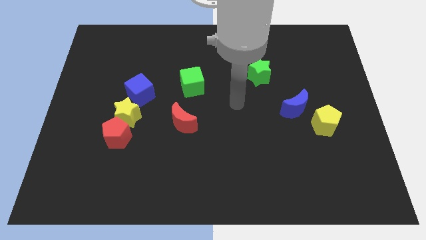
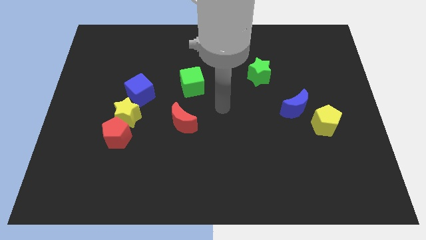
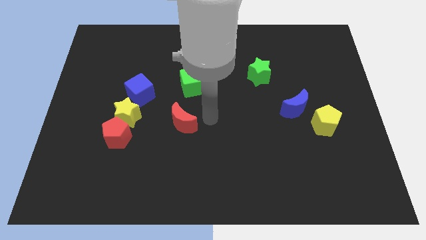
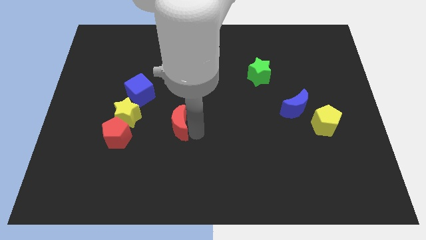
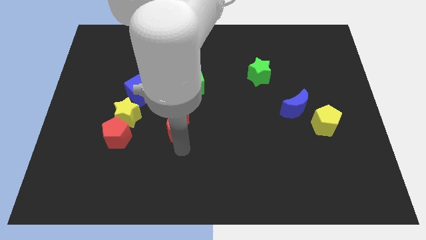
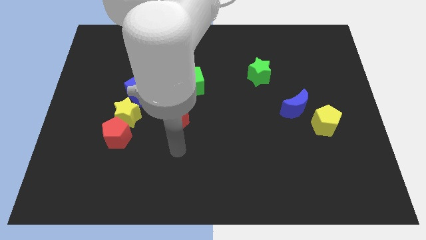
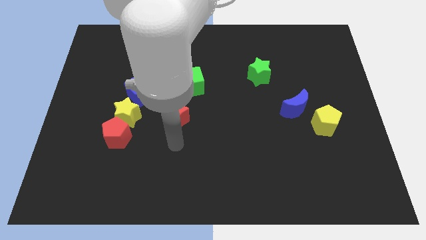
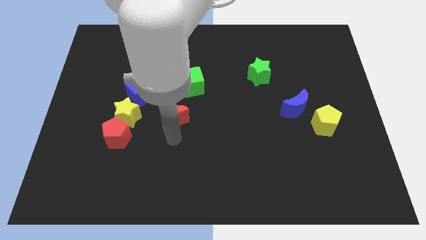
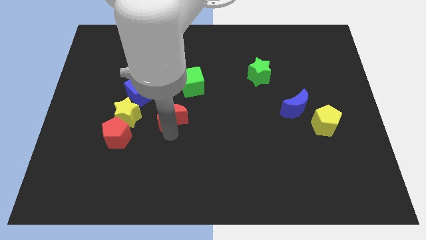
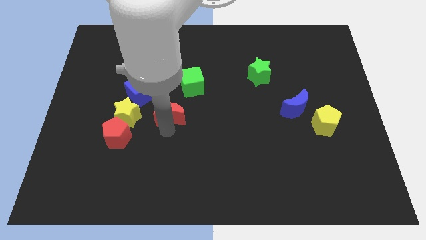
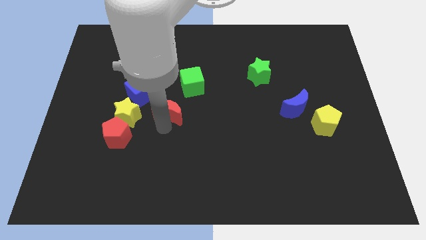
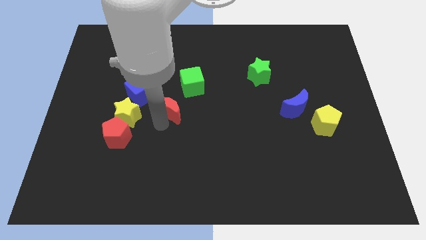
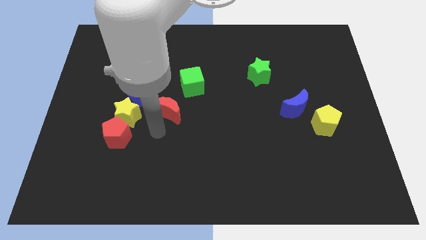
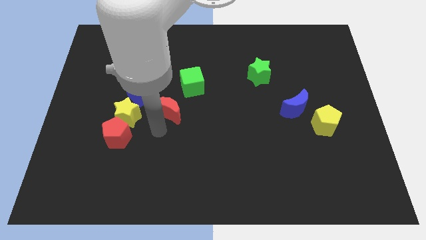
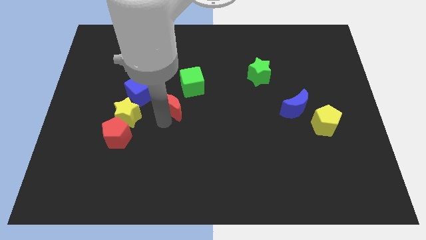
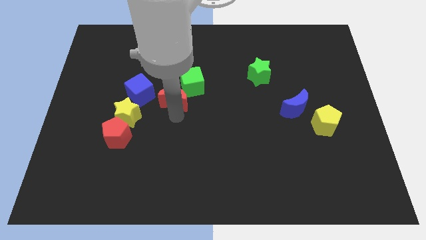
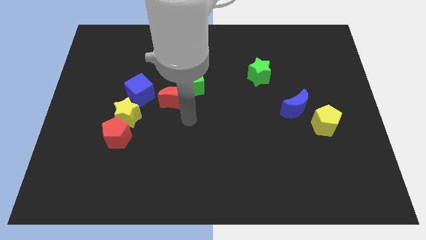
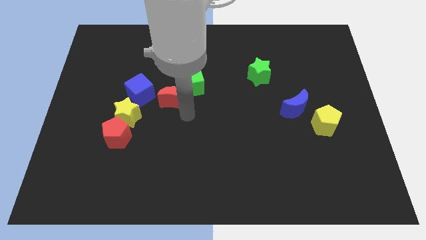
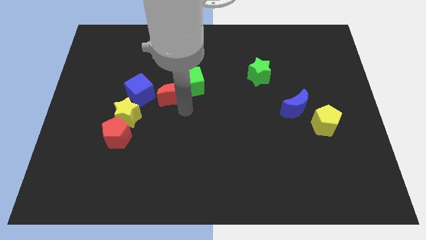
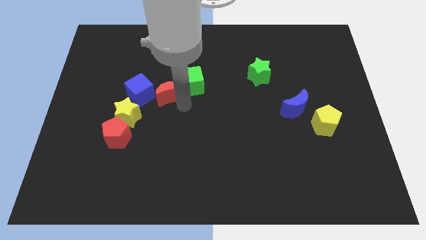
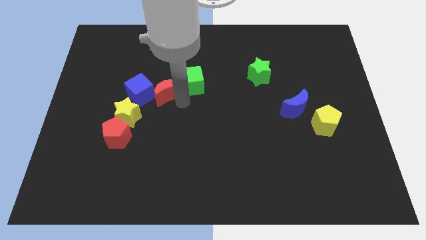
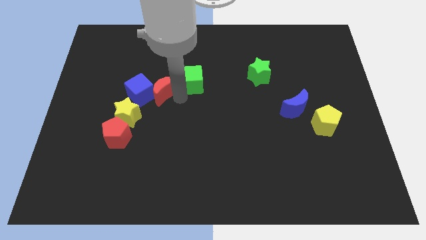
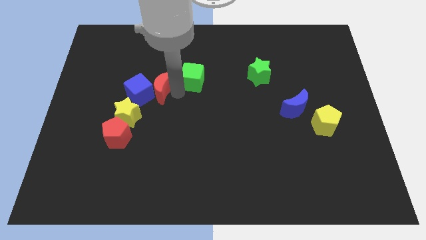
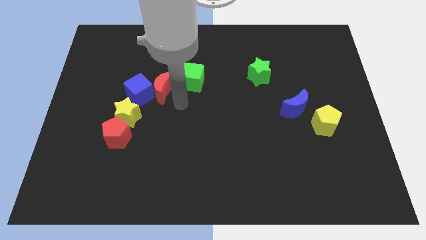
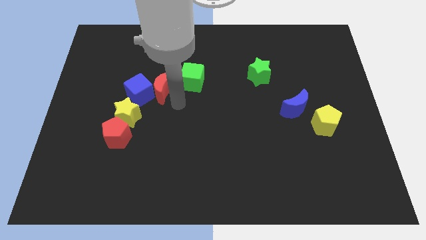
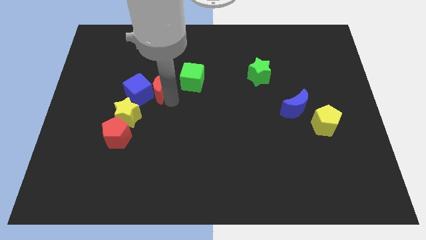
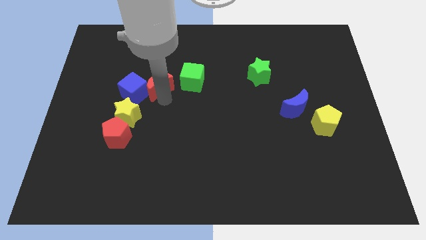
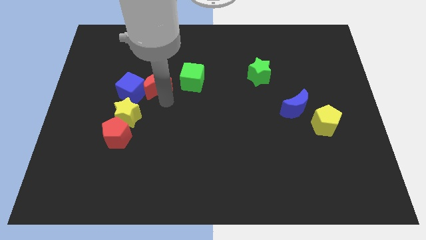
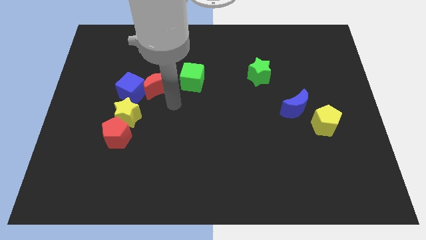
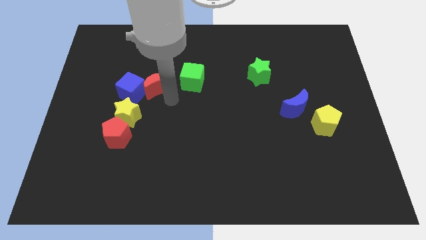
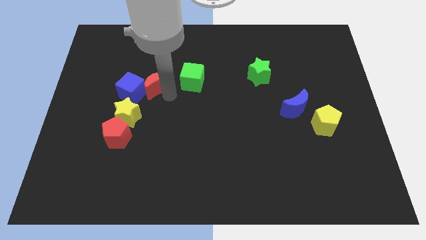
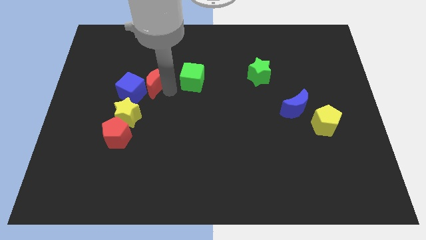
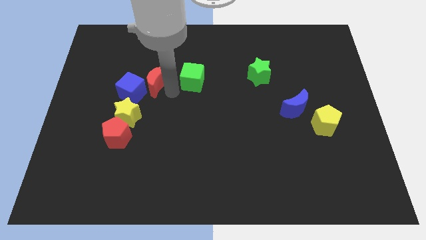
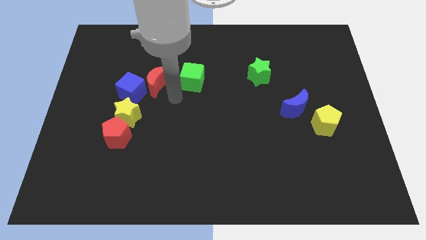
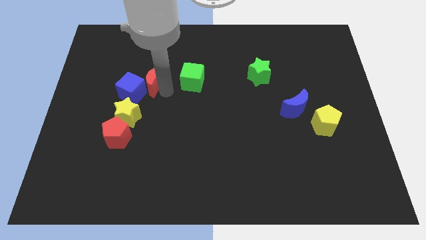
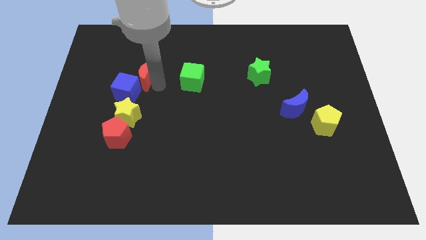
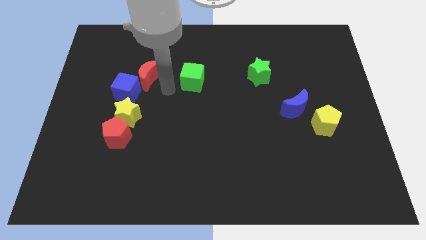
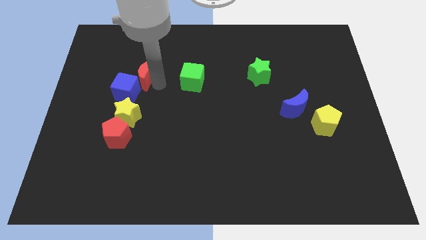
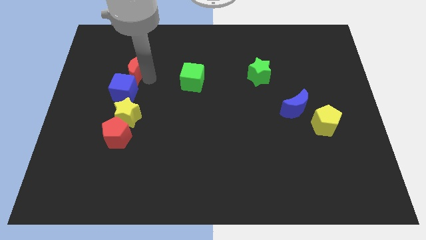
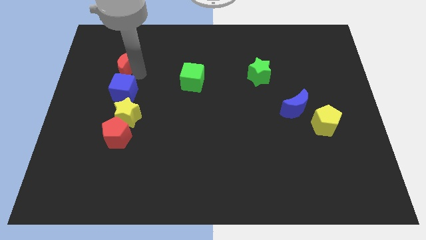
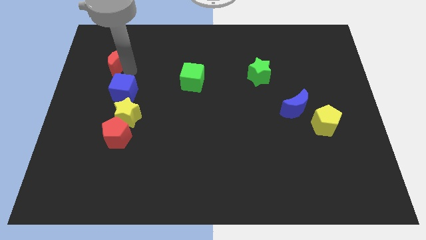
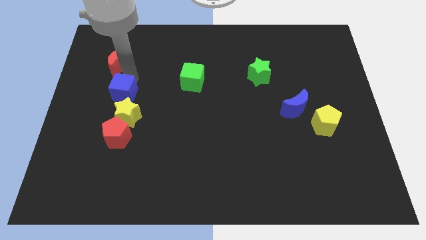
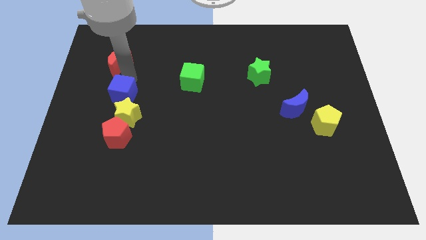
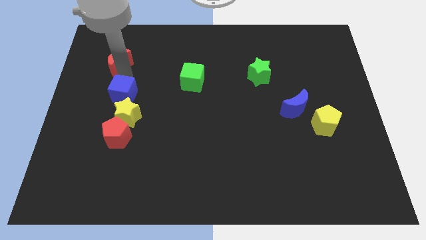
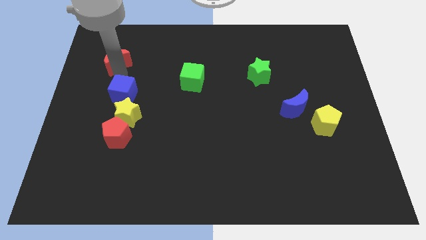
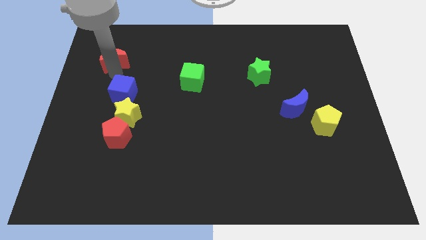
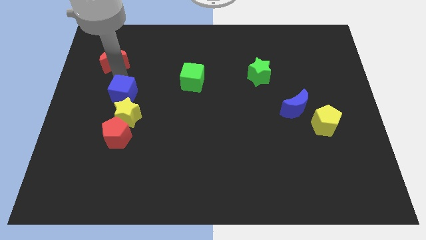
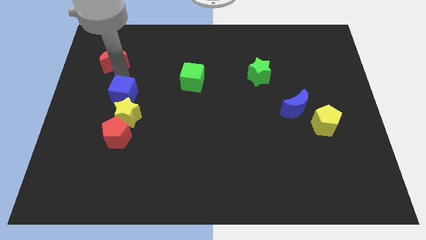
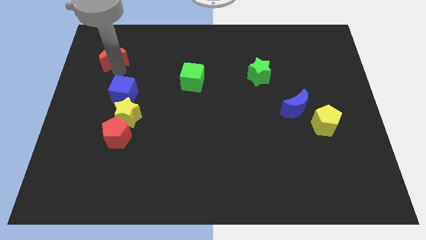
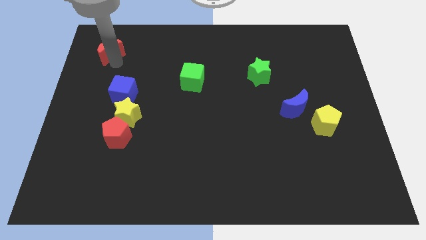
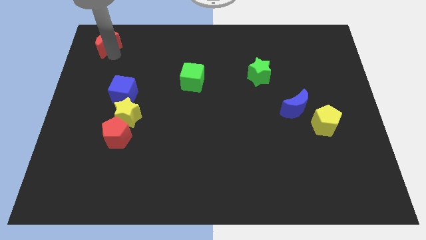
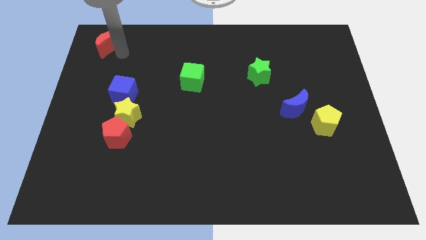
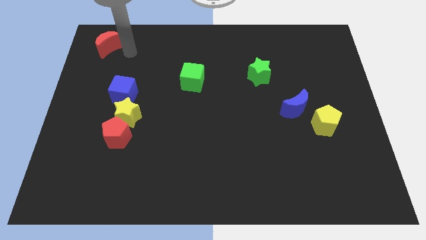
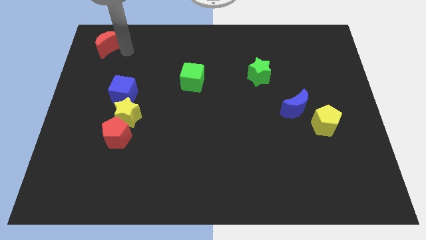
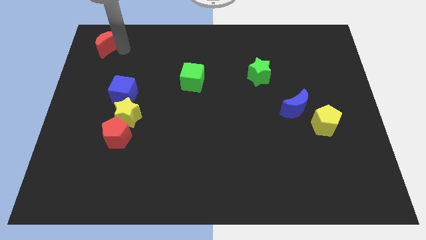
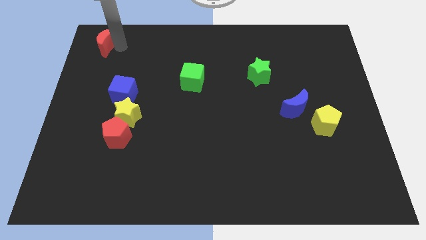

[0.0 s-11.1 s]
move the red moon to the top left corner

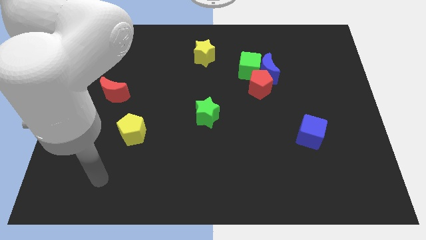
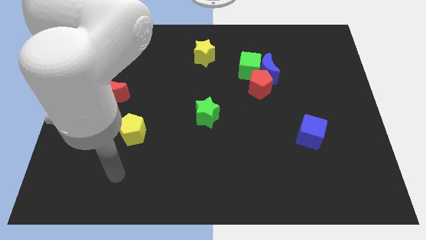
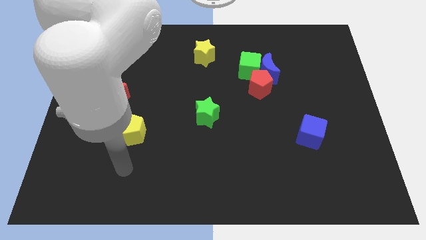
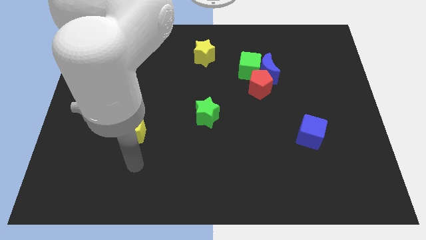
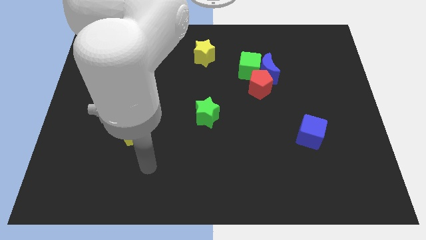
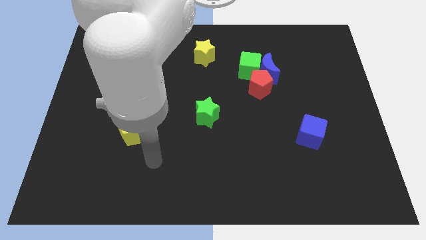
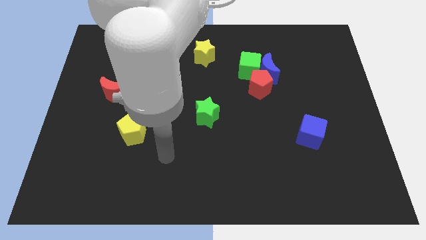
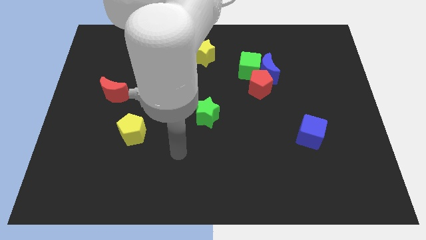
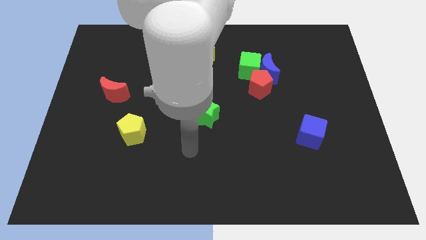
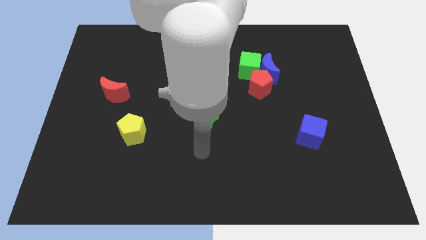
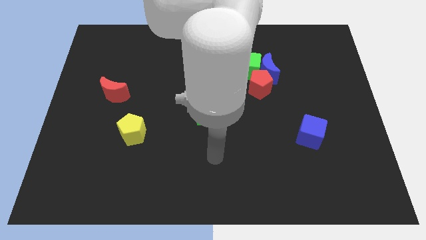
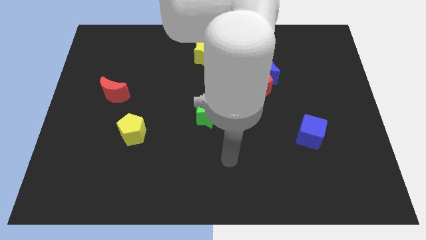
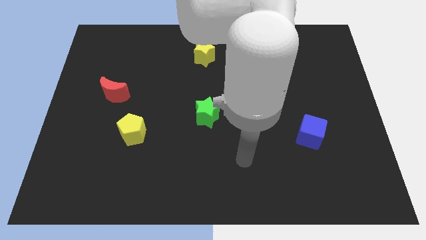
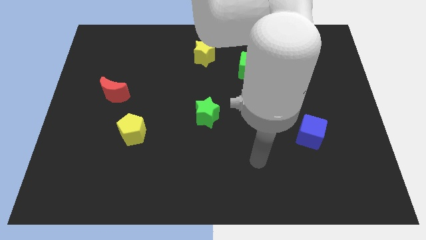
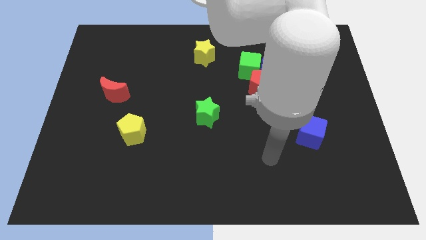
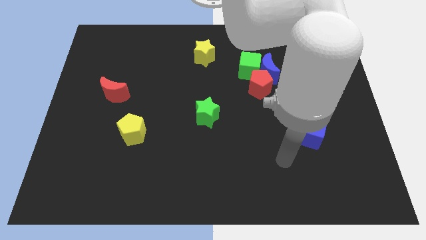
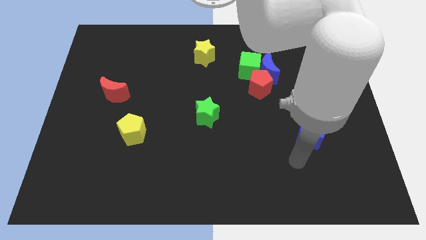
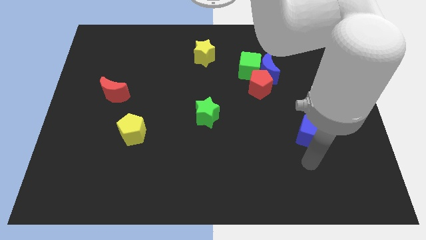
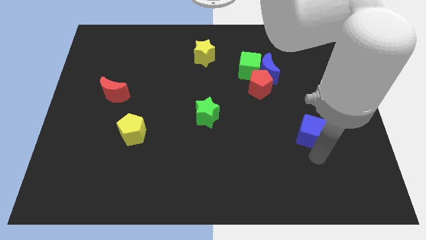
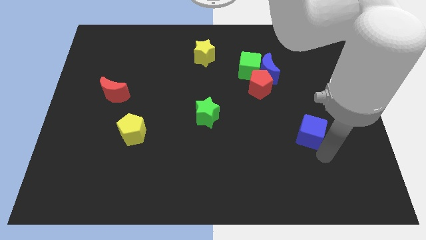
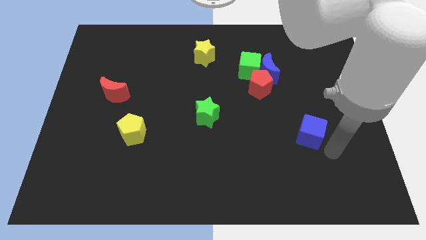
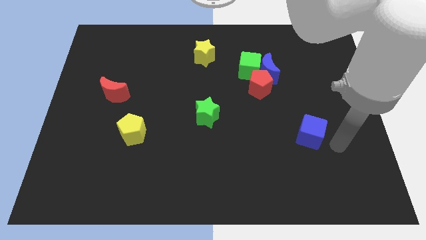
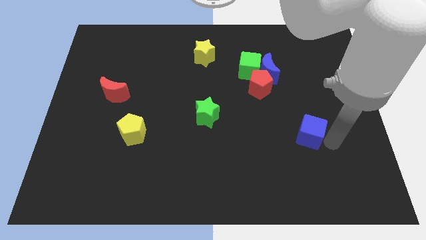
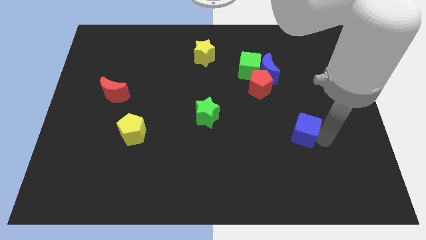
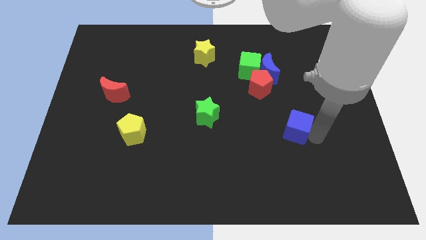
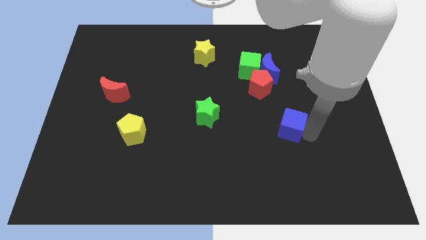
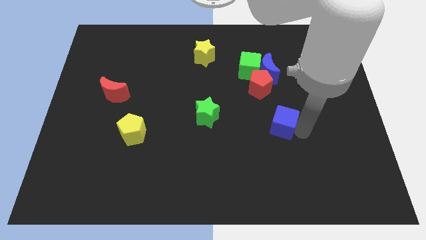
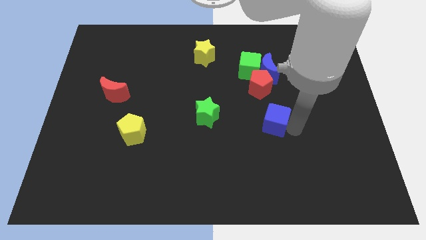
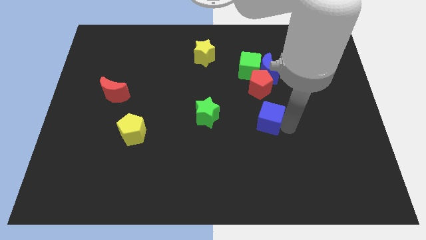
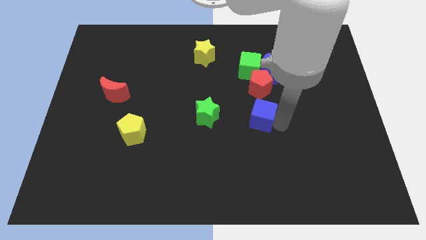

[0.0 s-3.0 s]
push the blue cube to the center
